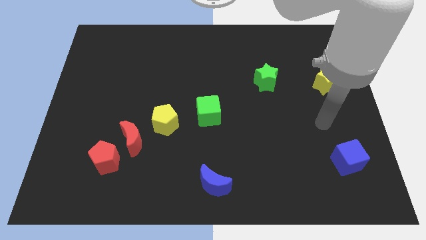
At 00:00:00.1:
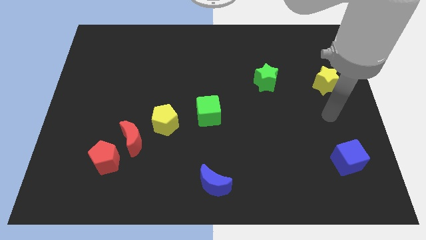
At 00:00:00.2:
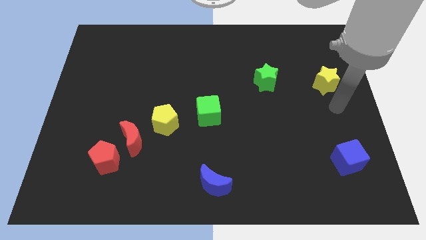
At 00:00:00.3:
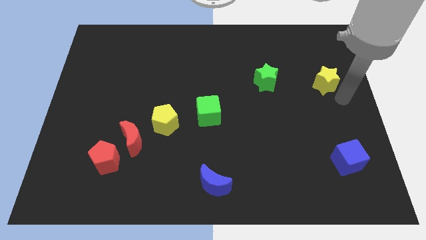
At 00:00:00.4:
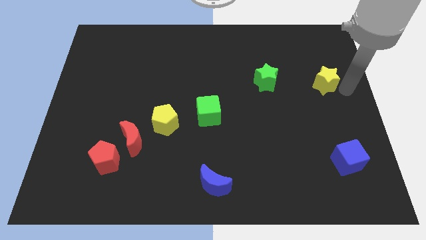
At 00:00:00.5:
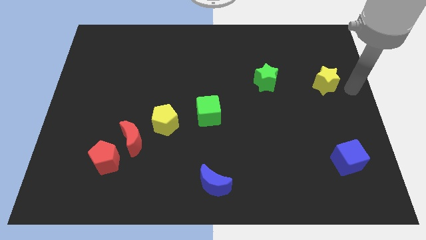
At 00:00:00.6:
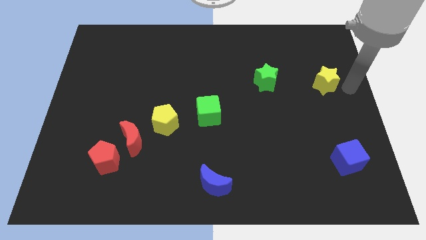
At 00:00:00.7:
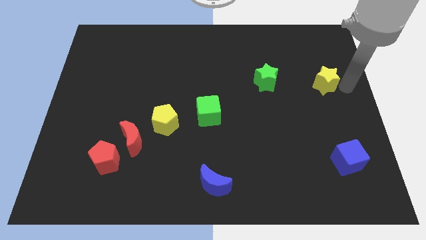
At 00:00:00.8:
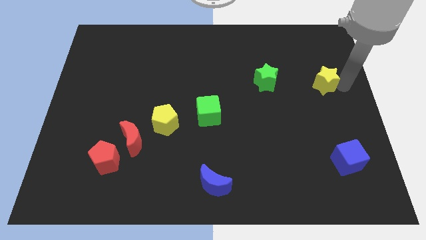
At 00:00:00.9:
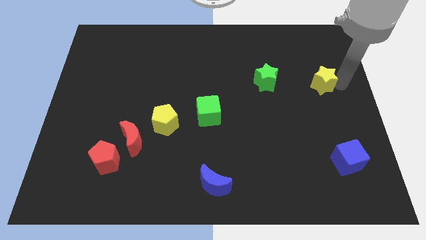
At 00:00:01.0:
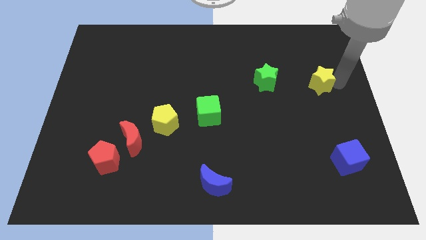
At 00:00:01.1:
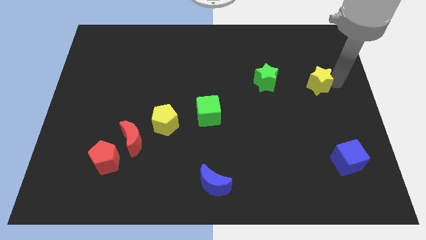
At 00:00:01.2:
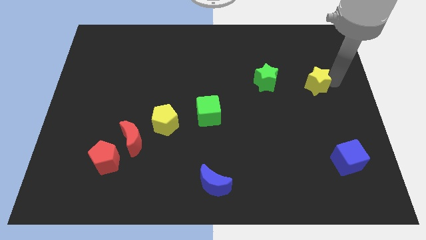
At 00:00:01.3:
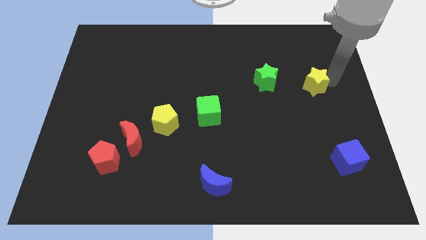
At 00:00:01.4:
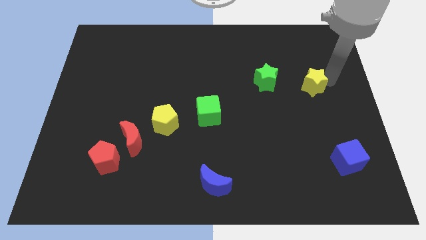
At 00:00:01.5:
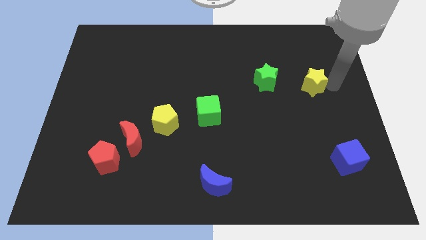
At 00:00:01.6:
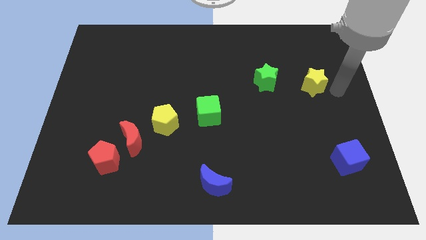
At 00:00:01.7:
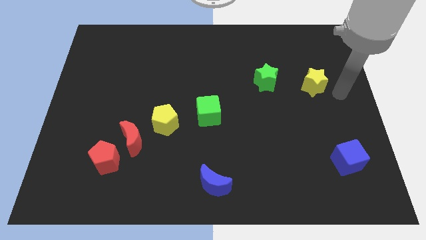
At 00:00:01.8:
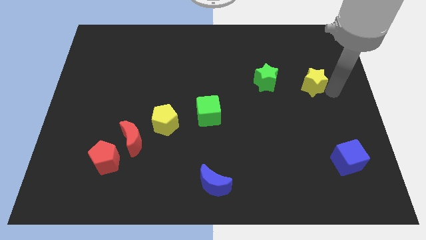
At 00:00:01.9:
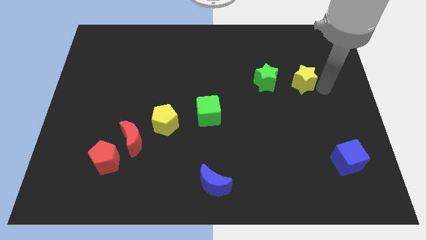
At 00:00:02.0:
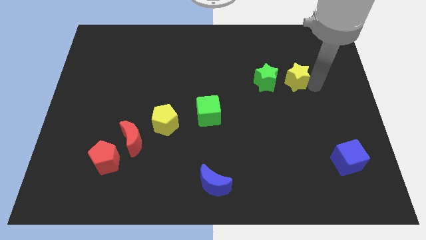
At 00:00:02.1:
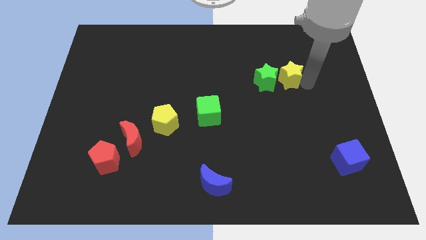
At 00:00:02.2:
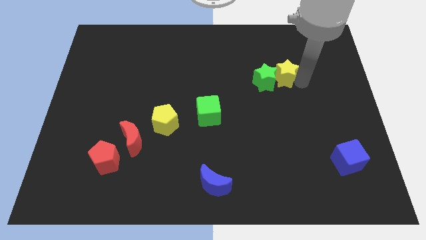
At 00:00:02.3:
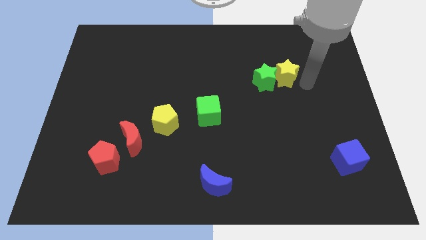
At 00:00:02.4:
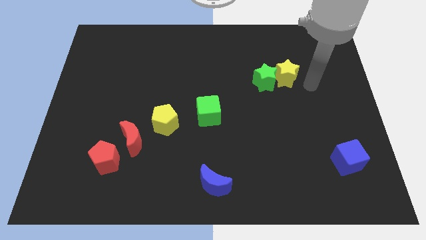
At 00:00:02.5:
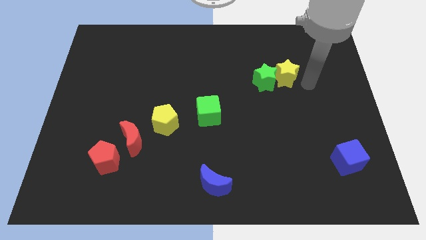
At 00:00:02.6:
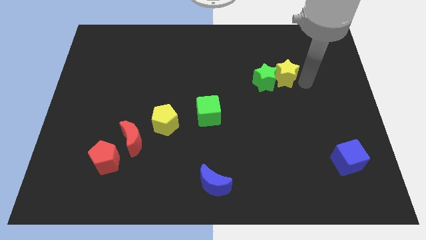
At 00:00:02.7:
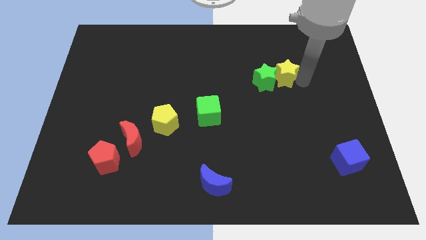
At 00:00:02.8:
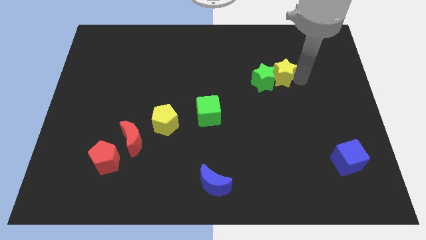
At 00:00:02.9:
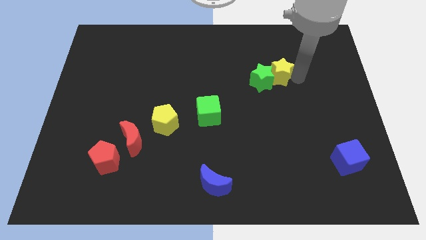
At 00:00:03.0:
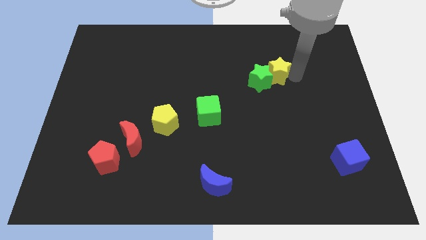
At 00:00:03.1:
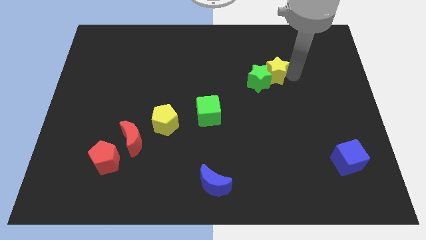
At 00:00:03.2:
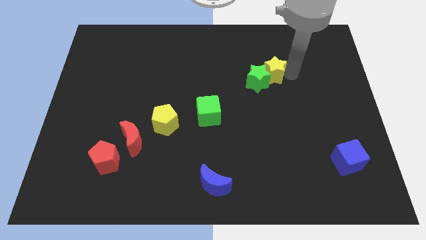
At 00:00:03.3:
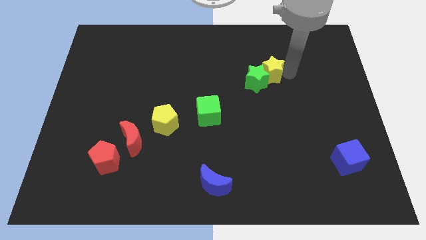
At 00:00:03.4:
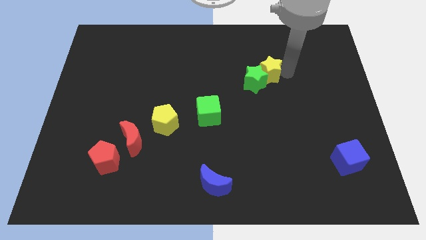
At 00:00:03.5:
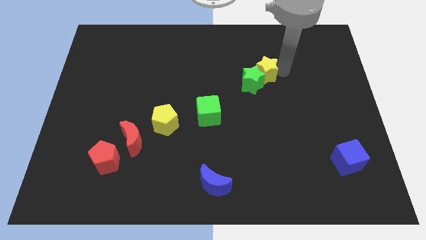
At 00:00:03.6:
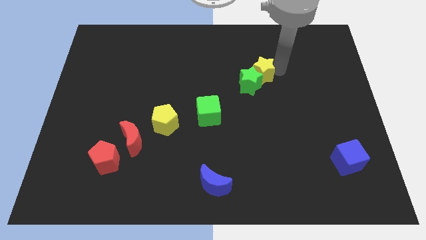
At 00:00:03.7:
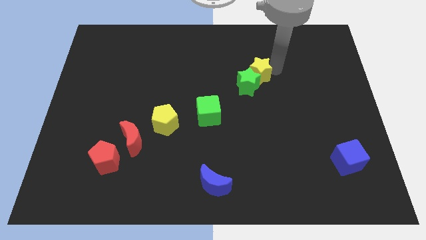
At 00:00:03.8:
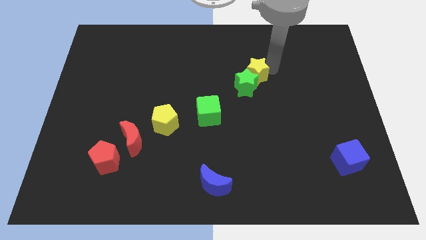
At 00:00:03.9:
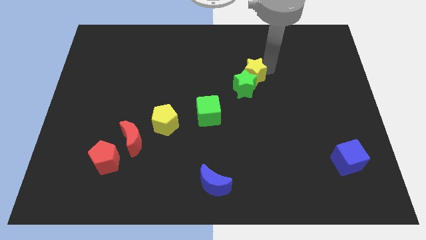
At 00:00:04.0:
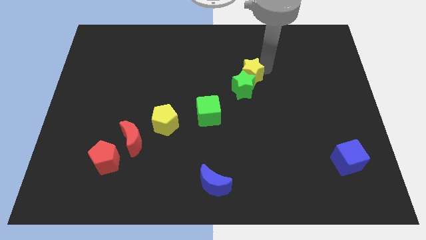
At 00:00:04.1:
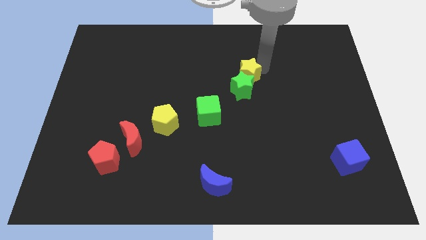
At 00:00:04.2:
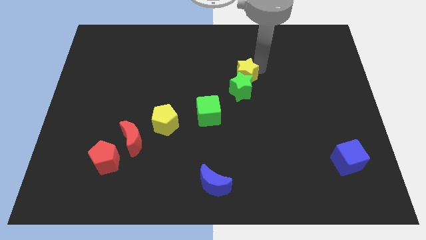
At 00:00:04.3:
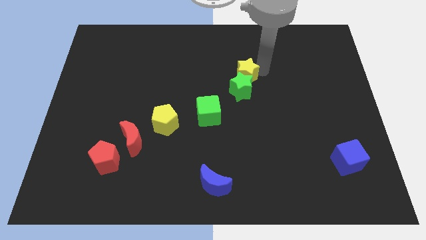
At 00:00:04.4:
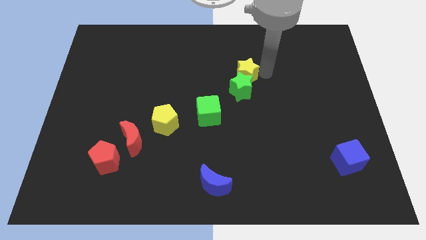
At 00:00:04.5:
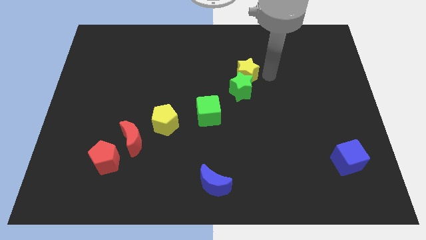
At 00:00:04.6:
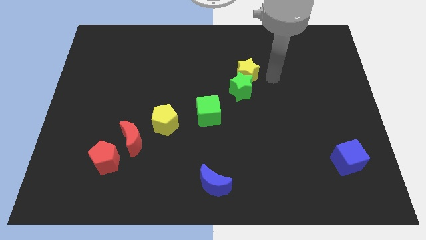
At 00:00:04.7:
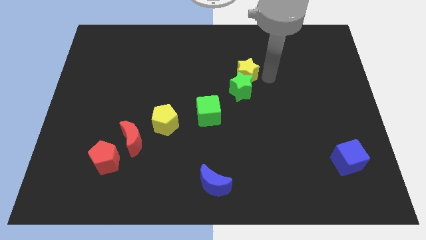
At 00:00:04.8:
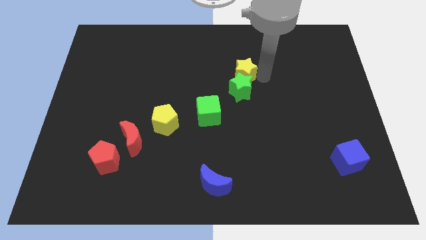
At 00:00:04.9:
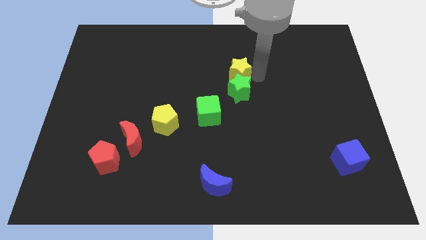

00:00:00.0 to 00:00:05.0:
slide the yellow star to the left

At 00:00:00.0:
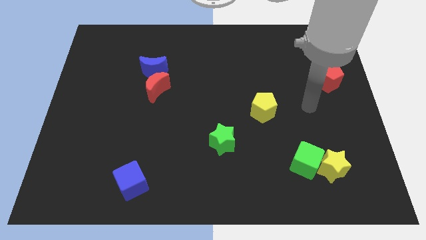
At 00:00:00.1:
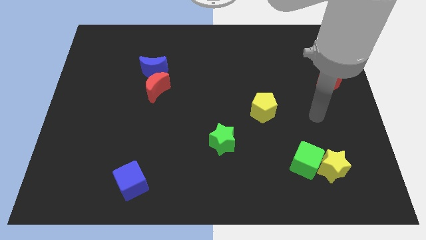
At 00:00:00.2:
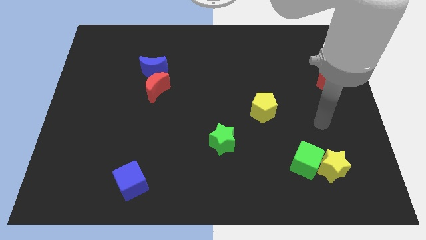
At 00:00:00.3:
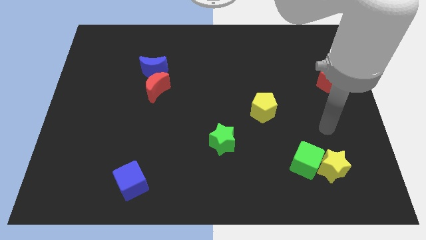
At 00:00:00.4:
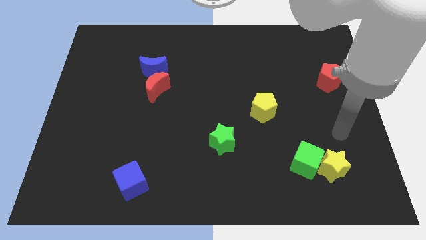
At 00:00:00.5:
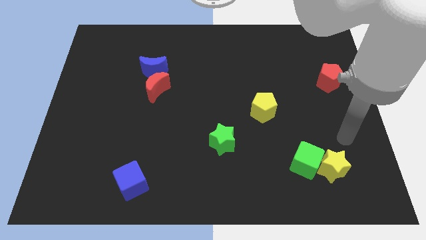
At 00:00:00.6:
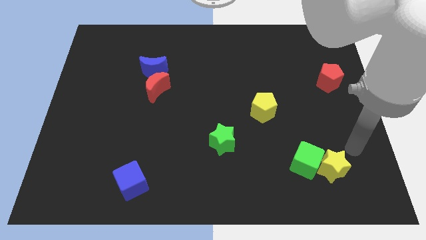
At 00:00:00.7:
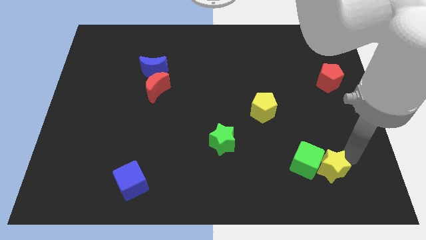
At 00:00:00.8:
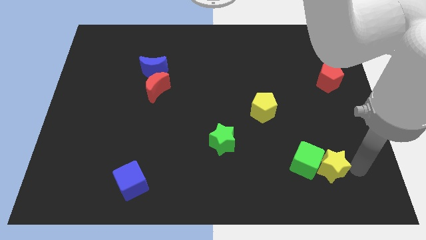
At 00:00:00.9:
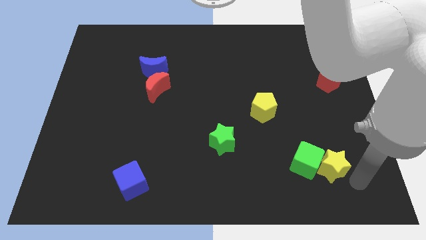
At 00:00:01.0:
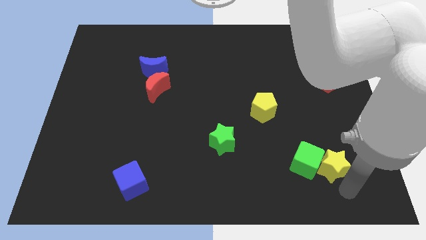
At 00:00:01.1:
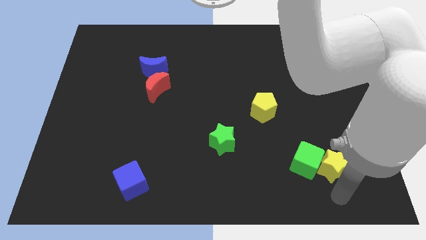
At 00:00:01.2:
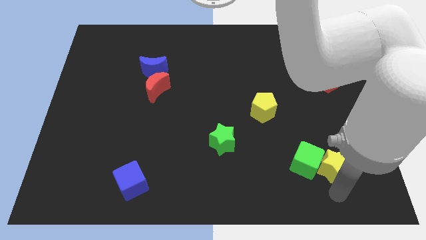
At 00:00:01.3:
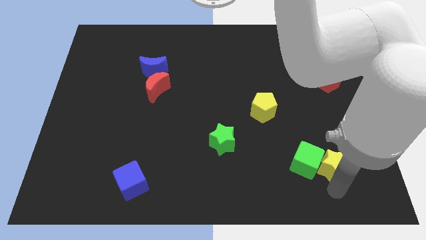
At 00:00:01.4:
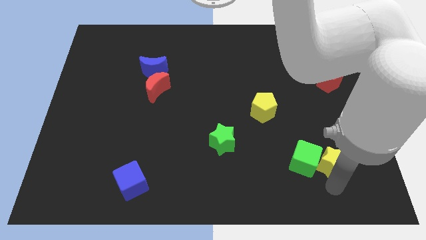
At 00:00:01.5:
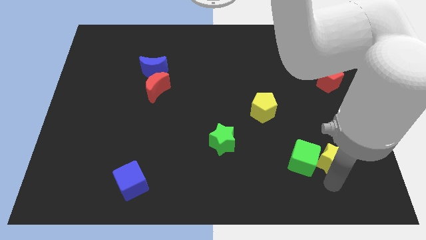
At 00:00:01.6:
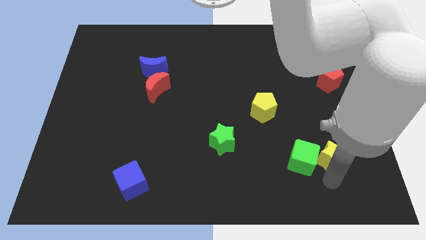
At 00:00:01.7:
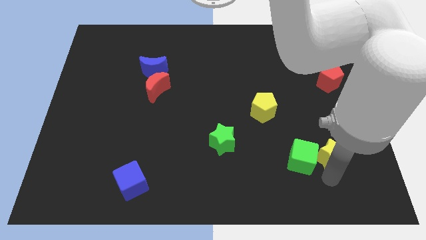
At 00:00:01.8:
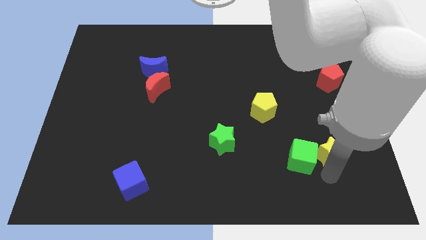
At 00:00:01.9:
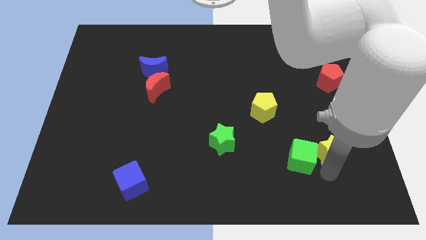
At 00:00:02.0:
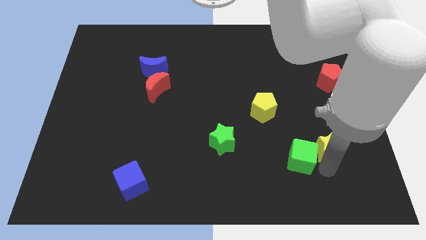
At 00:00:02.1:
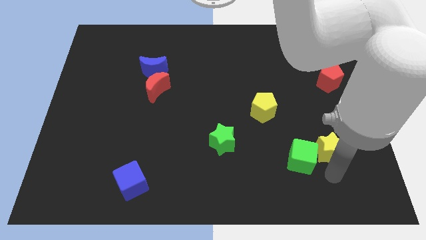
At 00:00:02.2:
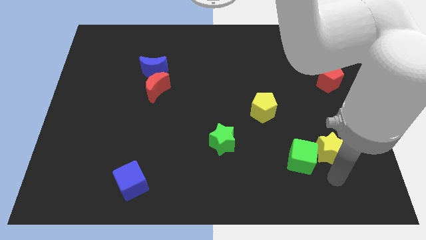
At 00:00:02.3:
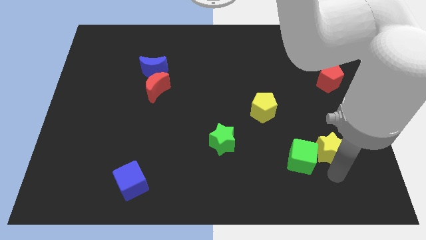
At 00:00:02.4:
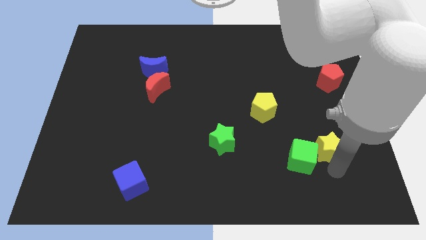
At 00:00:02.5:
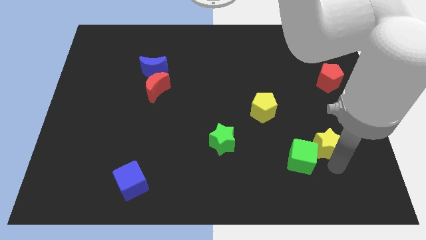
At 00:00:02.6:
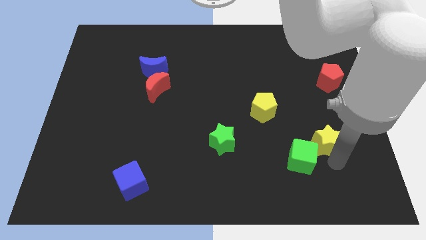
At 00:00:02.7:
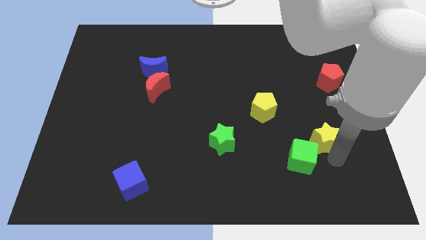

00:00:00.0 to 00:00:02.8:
push the yellow star a little bit upwards
